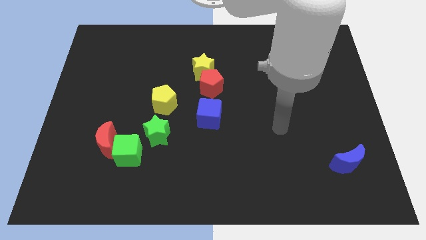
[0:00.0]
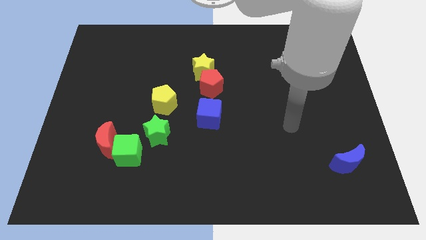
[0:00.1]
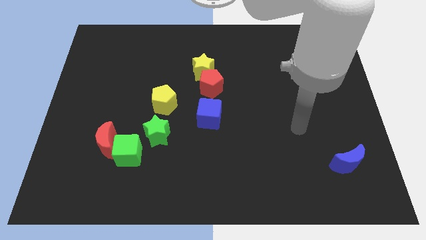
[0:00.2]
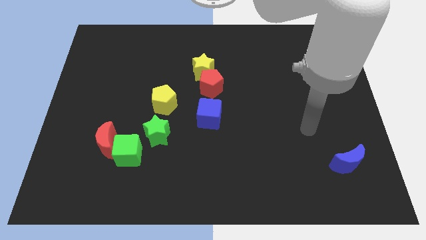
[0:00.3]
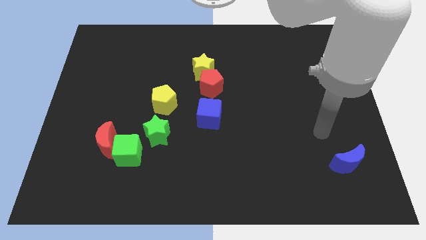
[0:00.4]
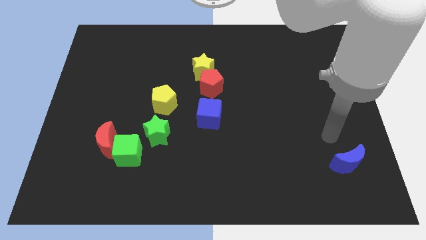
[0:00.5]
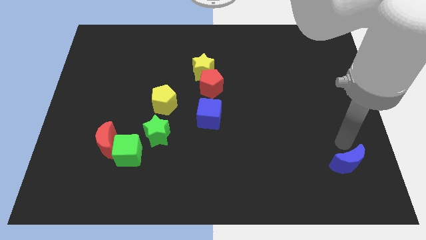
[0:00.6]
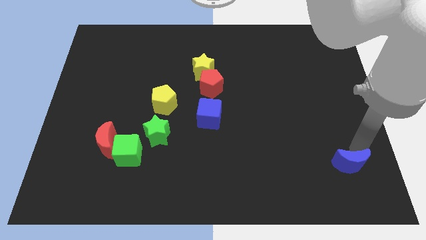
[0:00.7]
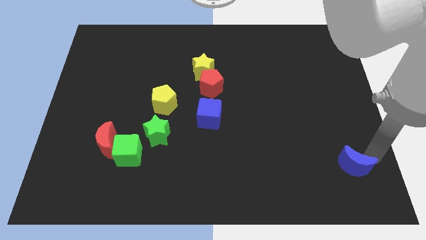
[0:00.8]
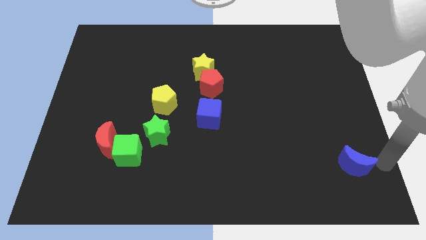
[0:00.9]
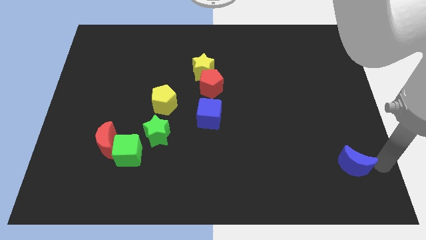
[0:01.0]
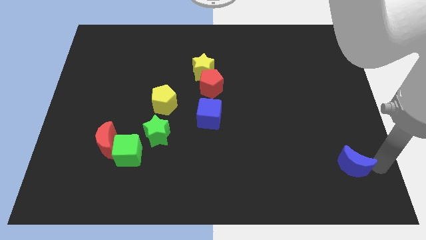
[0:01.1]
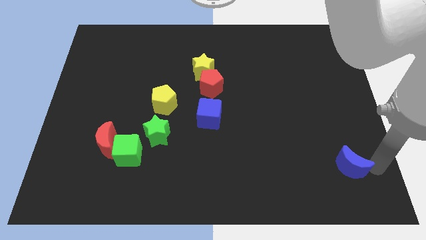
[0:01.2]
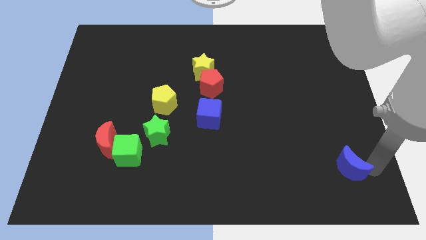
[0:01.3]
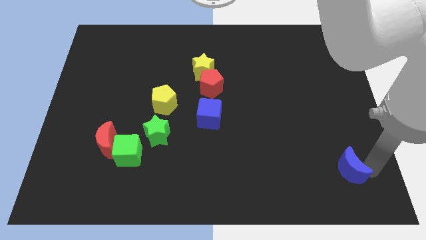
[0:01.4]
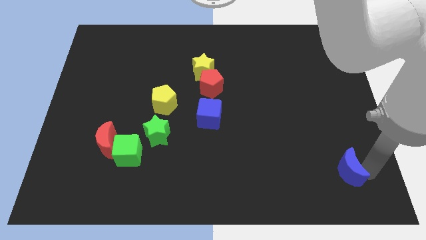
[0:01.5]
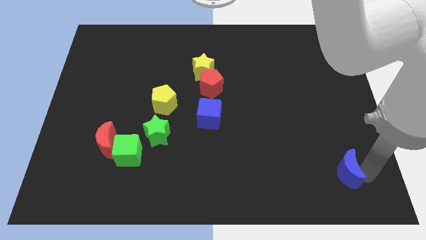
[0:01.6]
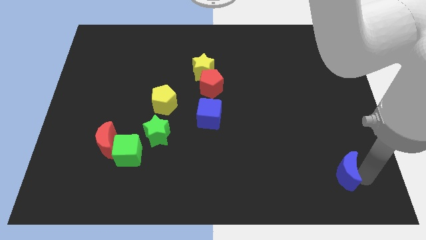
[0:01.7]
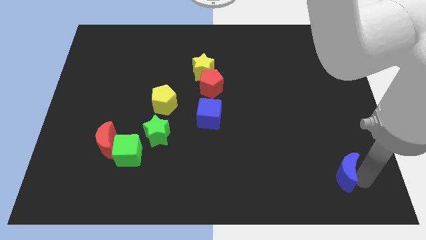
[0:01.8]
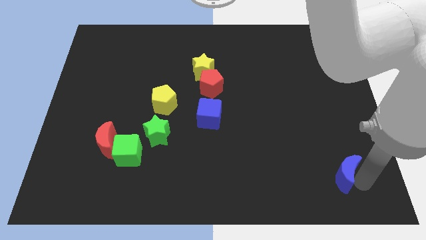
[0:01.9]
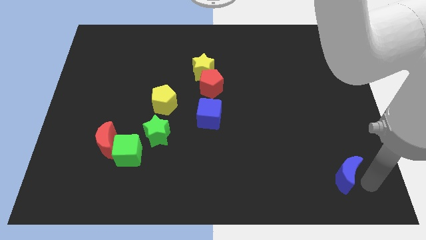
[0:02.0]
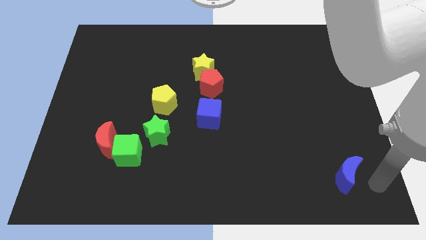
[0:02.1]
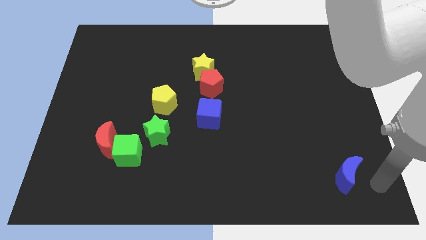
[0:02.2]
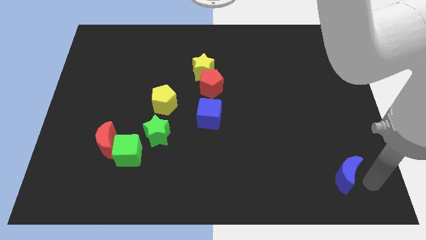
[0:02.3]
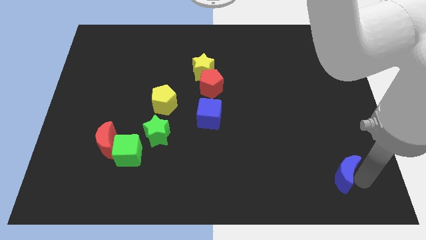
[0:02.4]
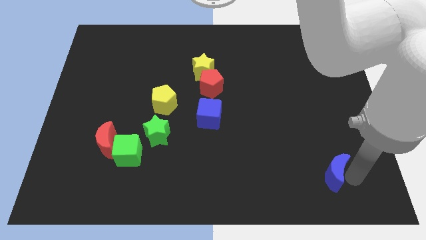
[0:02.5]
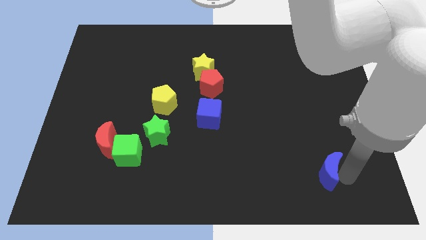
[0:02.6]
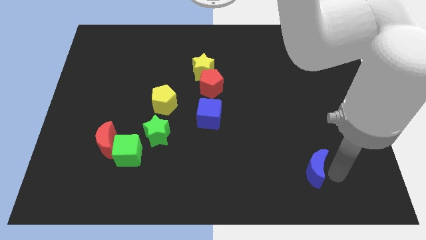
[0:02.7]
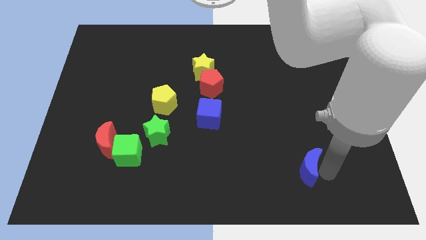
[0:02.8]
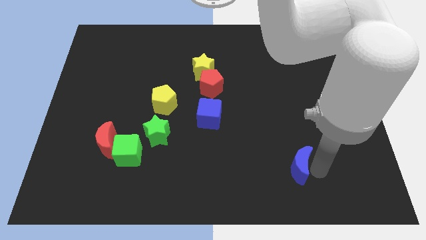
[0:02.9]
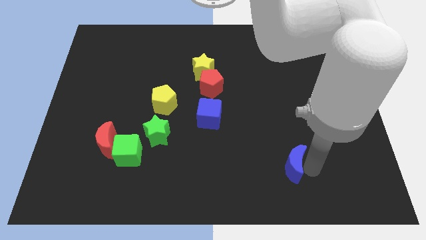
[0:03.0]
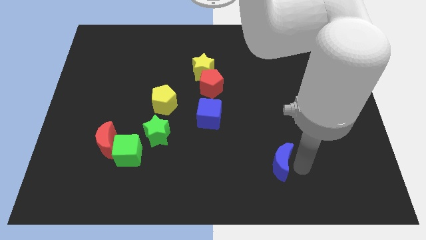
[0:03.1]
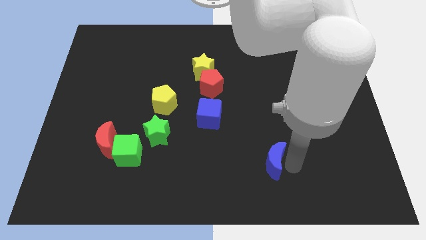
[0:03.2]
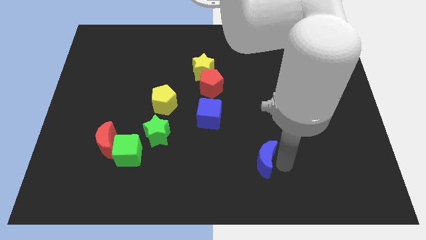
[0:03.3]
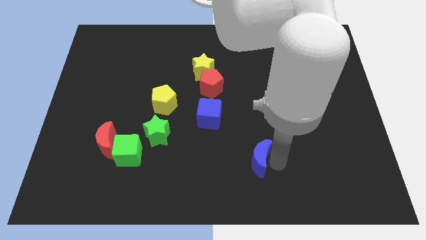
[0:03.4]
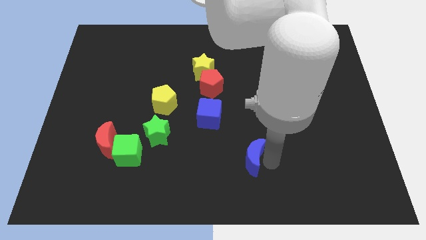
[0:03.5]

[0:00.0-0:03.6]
slide the blue moon left

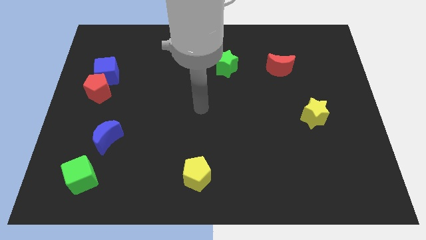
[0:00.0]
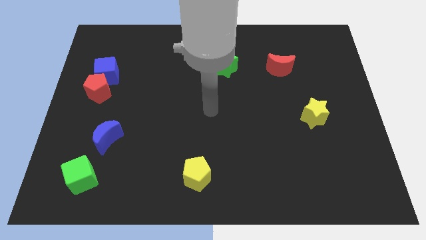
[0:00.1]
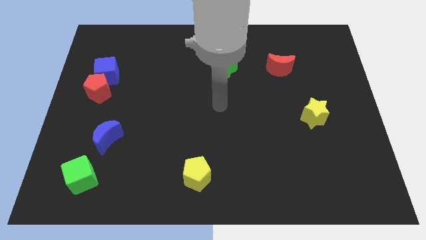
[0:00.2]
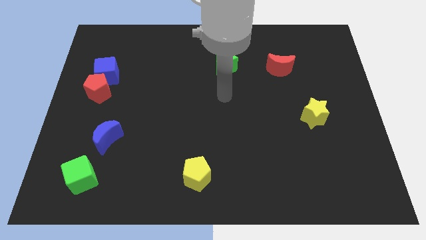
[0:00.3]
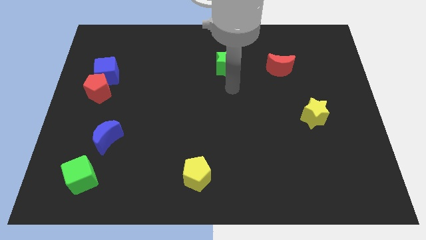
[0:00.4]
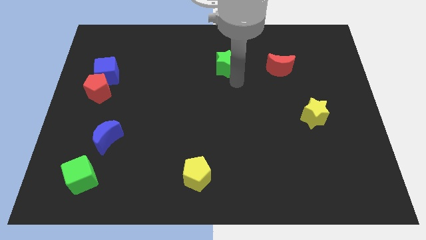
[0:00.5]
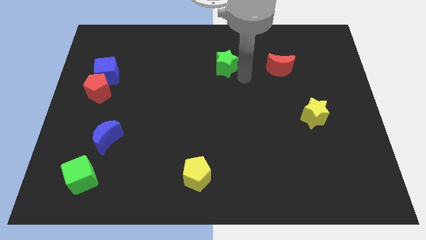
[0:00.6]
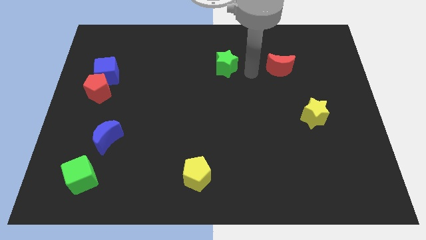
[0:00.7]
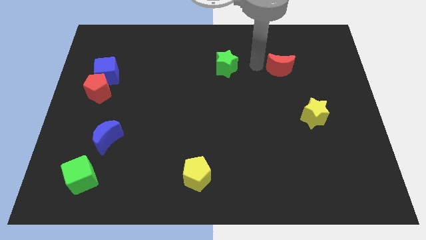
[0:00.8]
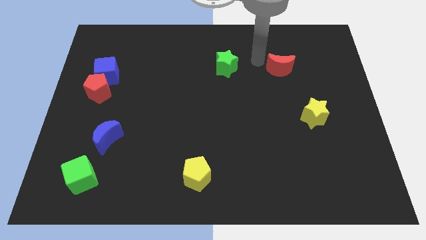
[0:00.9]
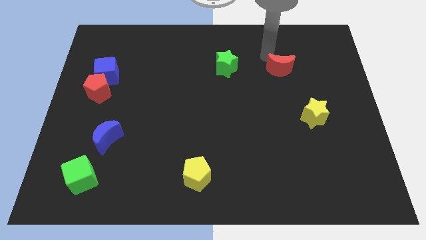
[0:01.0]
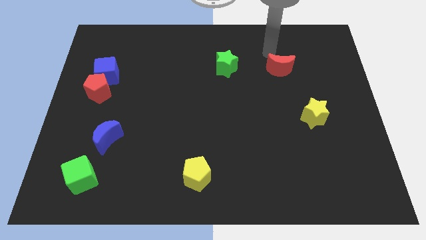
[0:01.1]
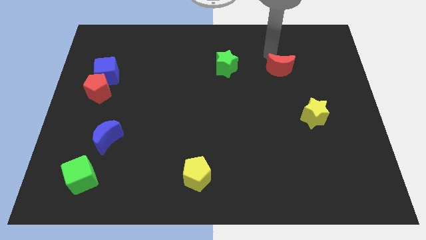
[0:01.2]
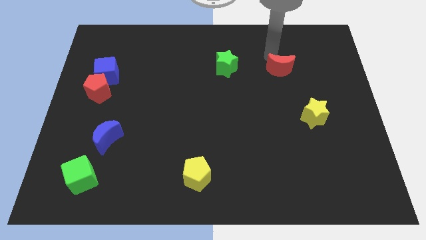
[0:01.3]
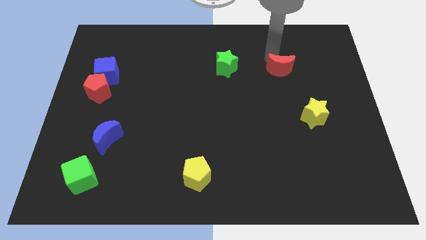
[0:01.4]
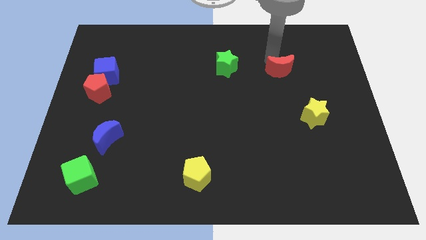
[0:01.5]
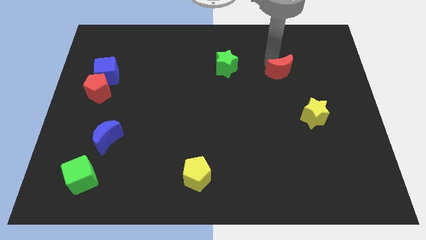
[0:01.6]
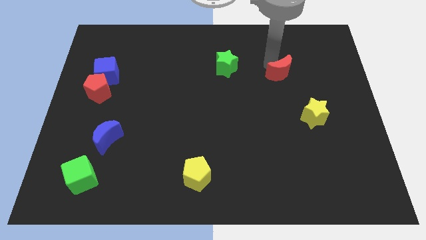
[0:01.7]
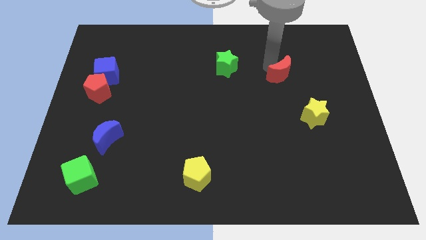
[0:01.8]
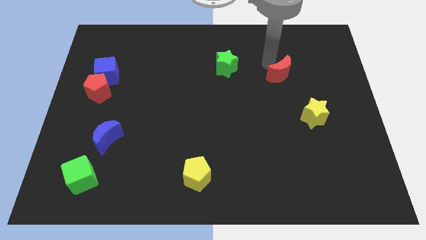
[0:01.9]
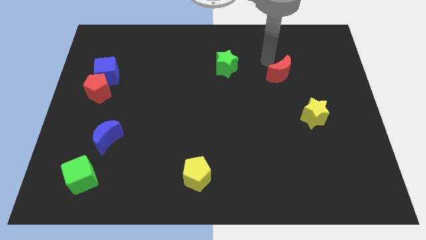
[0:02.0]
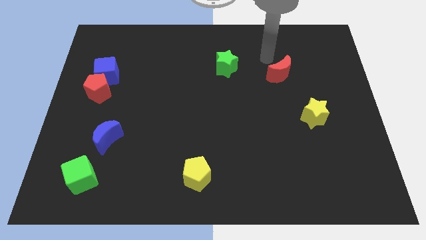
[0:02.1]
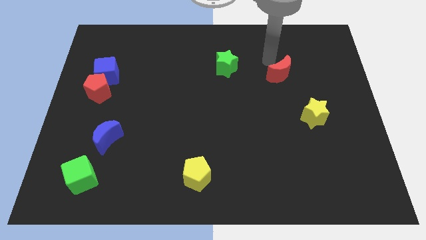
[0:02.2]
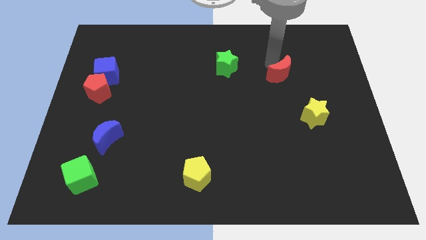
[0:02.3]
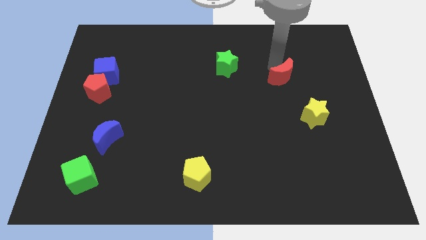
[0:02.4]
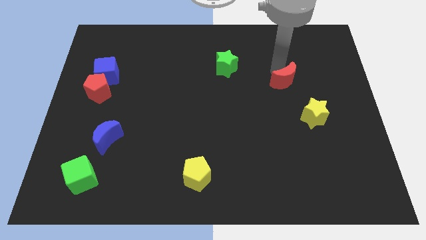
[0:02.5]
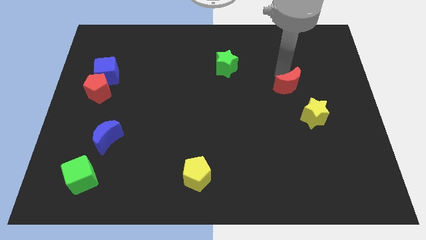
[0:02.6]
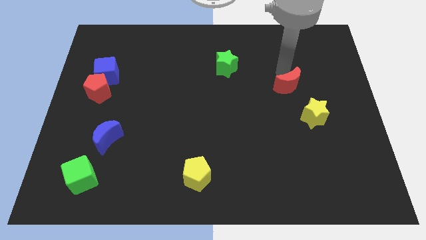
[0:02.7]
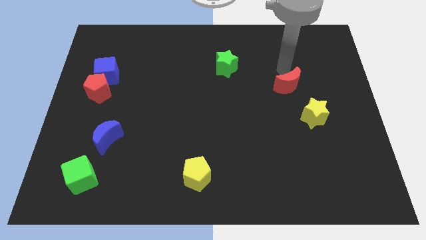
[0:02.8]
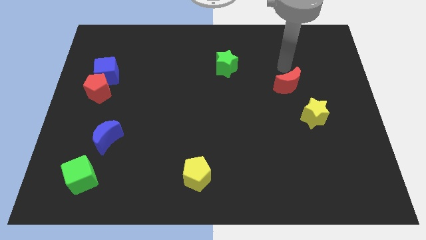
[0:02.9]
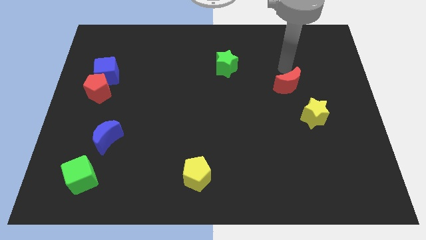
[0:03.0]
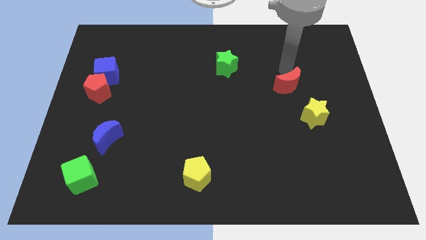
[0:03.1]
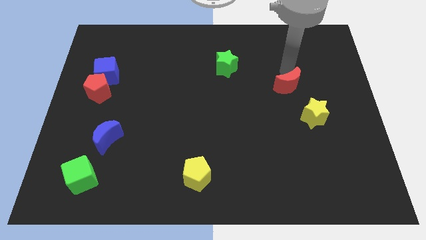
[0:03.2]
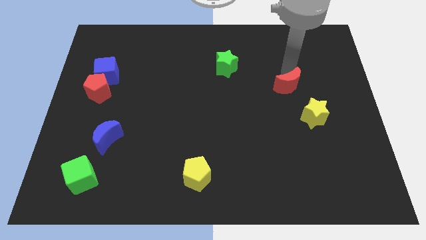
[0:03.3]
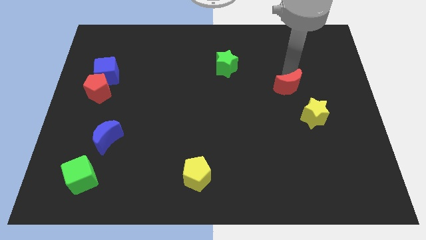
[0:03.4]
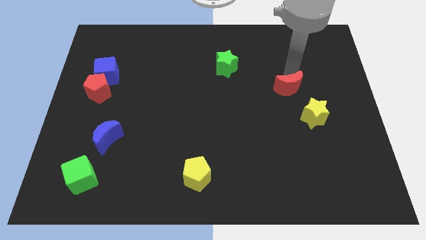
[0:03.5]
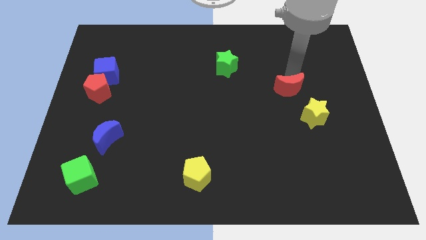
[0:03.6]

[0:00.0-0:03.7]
move the red moon a little bit down

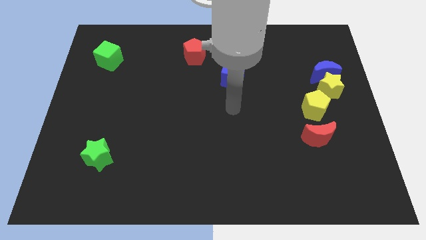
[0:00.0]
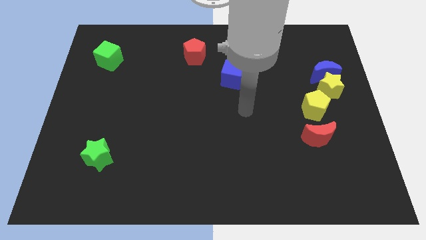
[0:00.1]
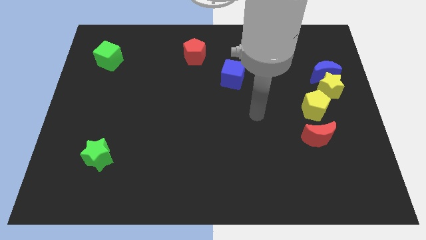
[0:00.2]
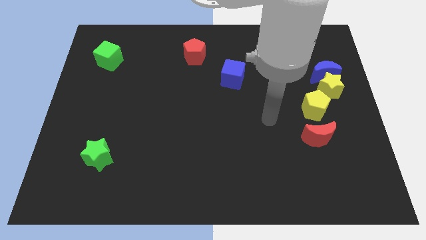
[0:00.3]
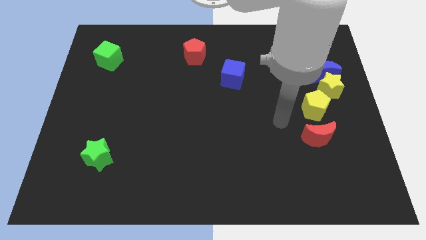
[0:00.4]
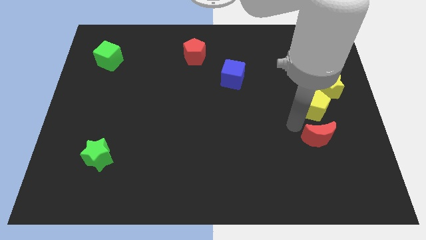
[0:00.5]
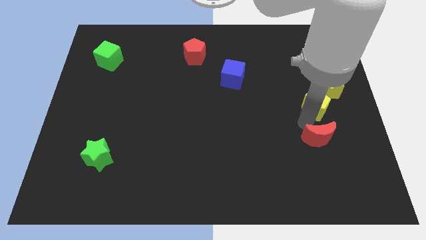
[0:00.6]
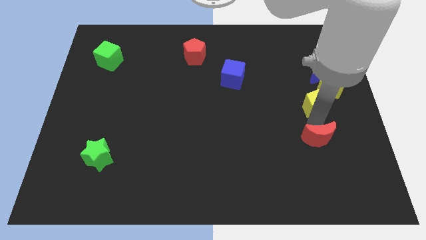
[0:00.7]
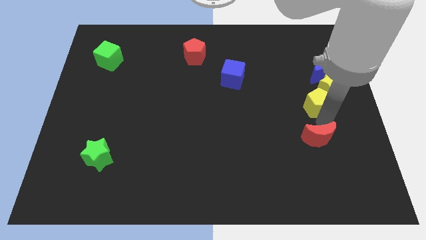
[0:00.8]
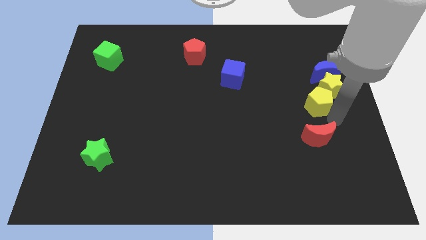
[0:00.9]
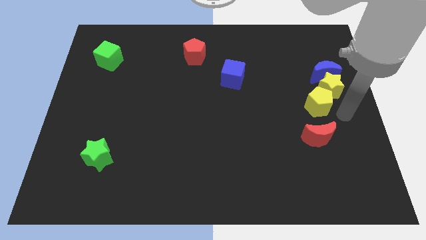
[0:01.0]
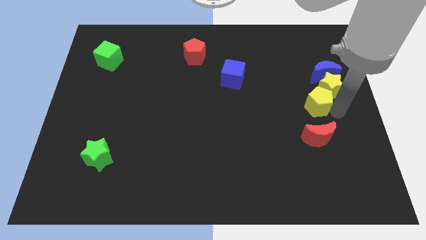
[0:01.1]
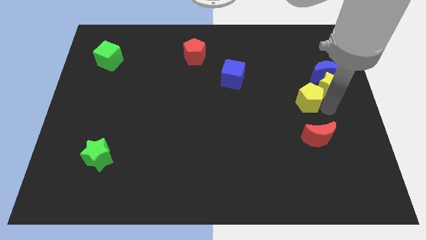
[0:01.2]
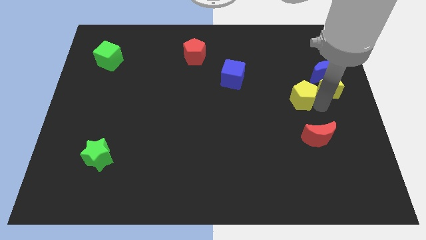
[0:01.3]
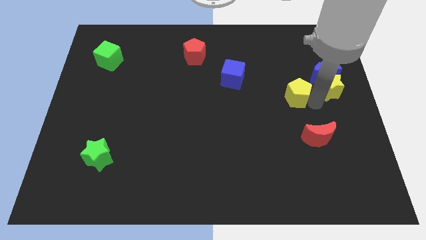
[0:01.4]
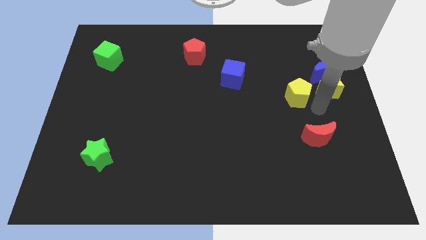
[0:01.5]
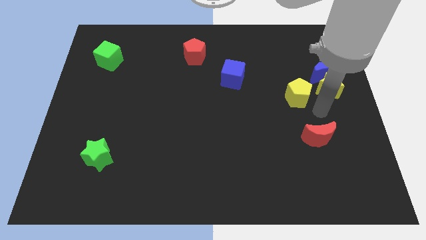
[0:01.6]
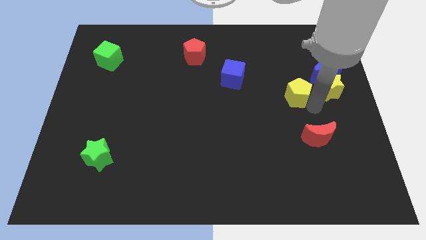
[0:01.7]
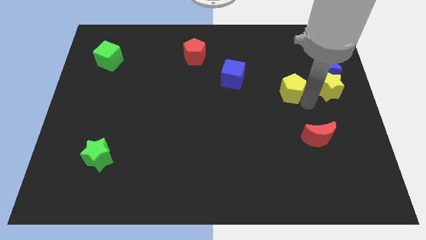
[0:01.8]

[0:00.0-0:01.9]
slightly push the yellow pentagon up and to the left
